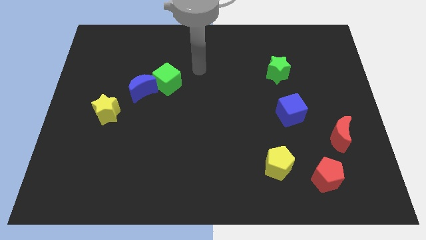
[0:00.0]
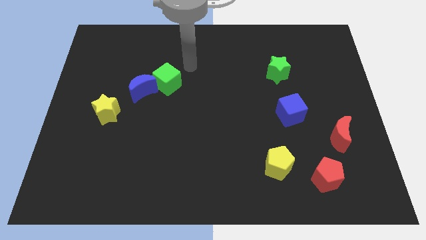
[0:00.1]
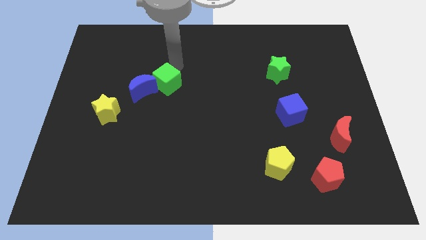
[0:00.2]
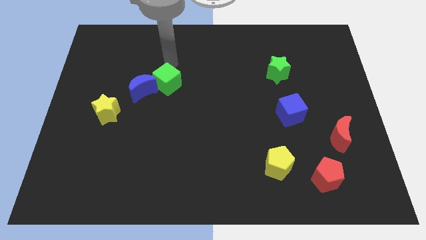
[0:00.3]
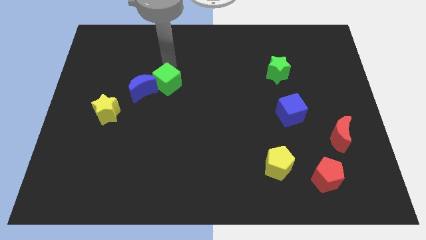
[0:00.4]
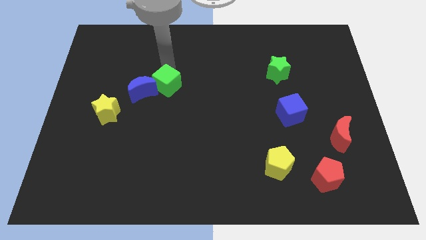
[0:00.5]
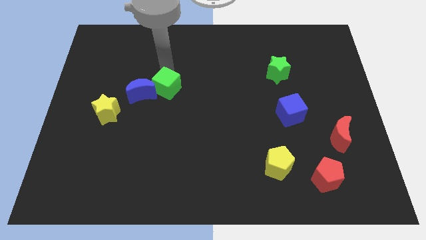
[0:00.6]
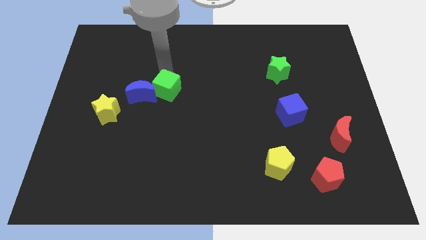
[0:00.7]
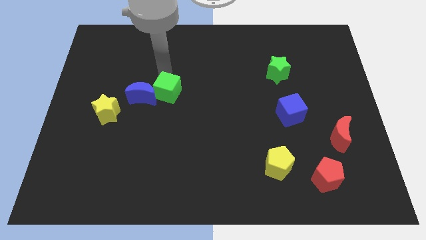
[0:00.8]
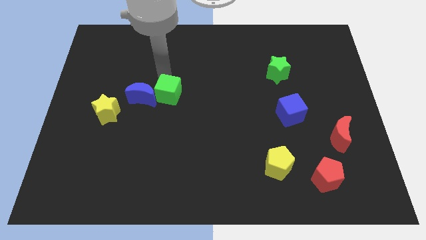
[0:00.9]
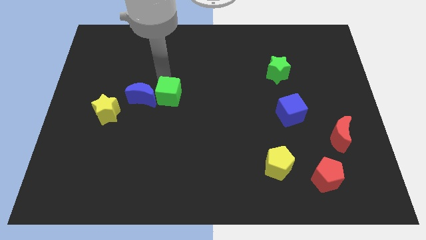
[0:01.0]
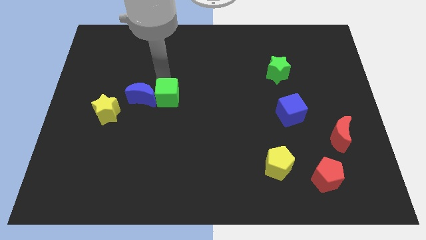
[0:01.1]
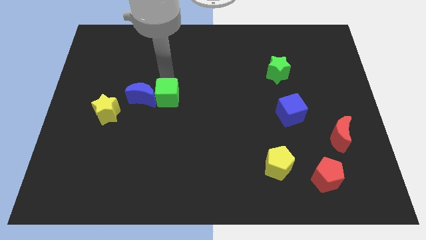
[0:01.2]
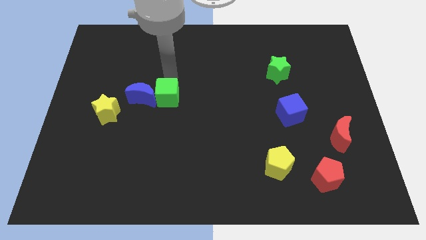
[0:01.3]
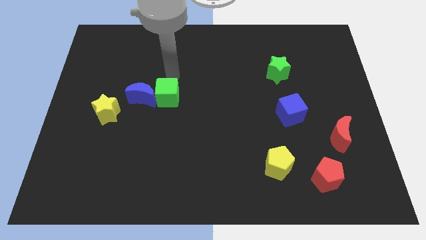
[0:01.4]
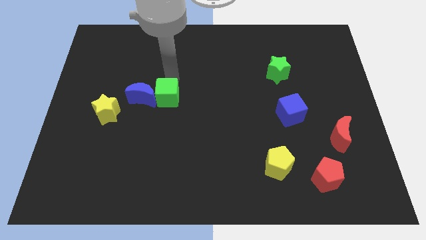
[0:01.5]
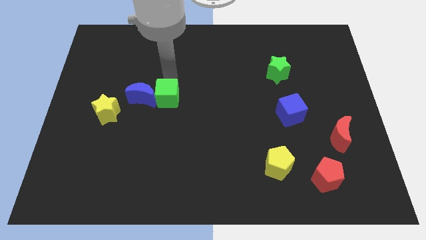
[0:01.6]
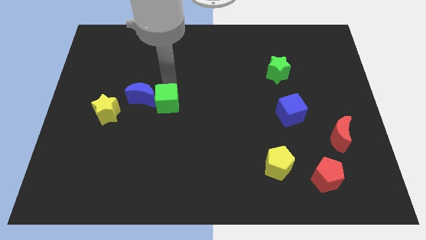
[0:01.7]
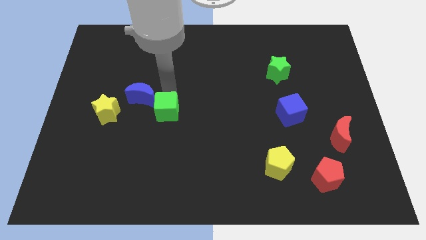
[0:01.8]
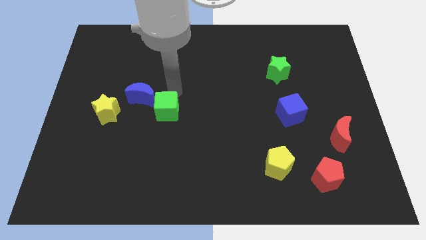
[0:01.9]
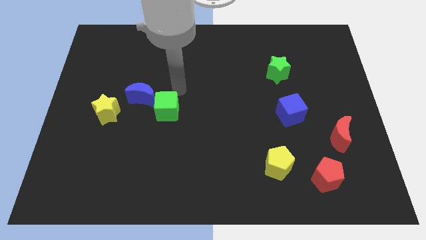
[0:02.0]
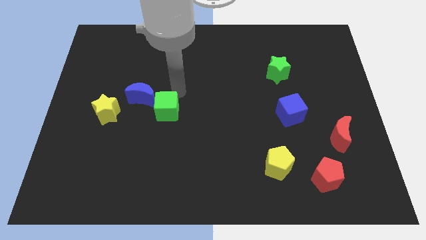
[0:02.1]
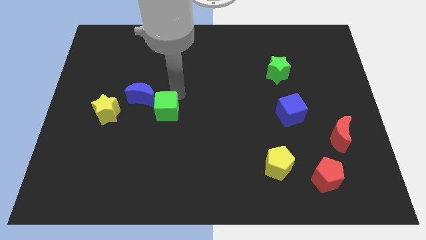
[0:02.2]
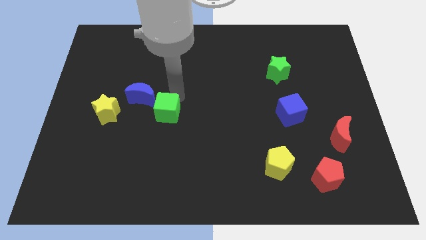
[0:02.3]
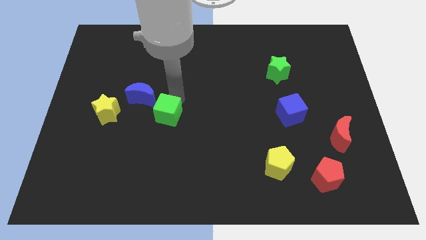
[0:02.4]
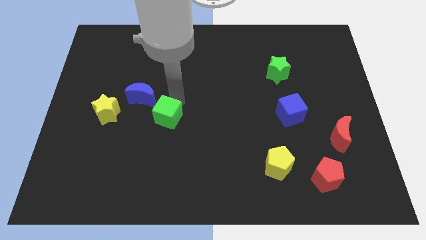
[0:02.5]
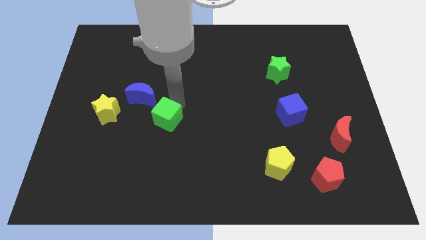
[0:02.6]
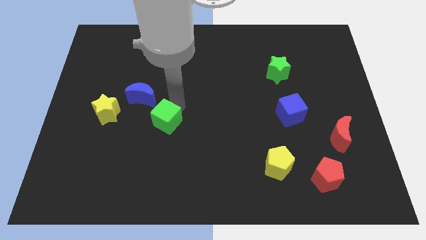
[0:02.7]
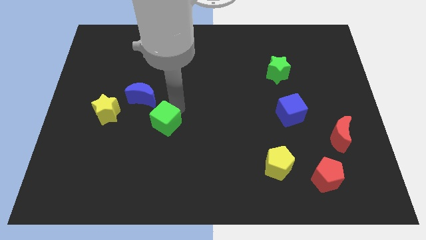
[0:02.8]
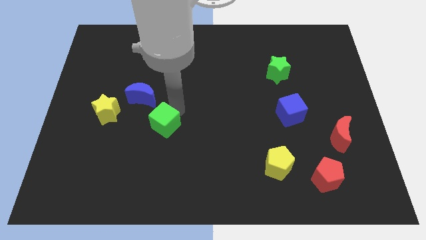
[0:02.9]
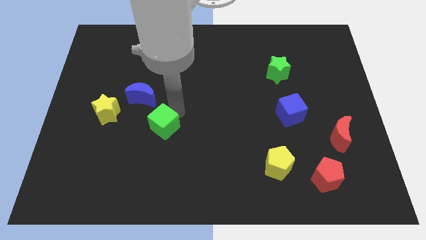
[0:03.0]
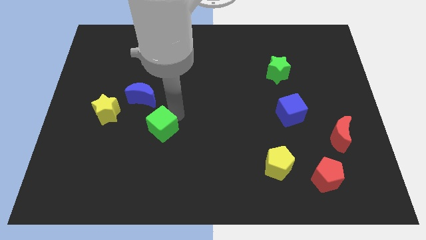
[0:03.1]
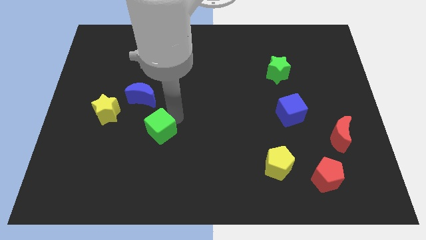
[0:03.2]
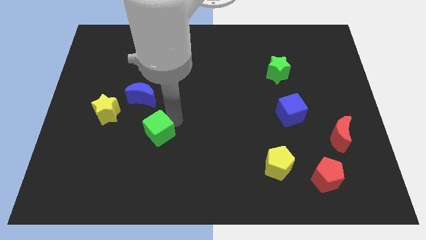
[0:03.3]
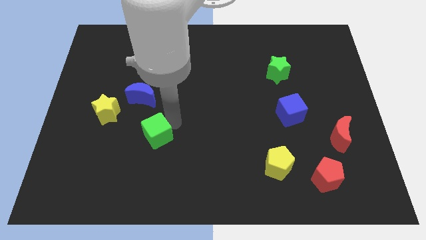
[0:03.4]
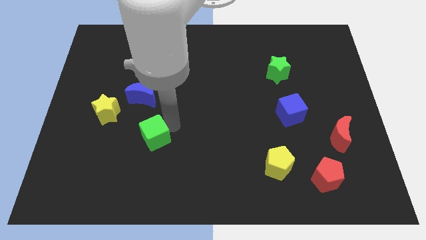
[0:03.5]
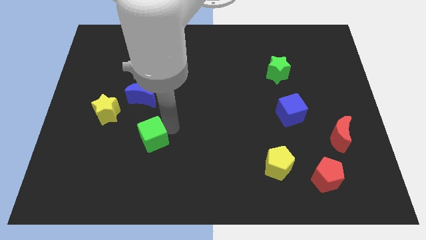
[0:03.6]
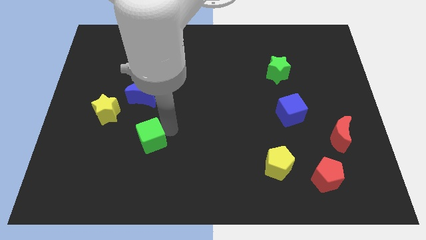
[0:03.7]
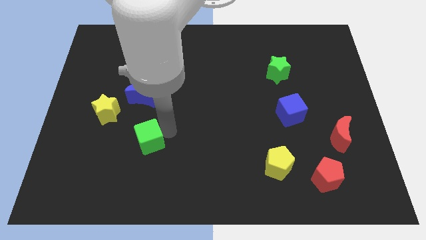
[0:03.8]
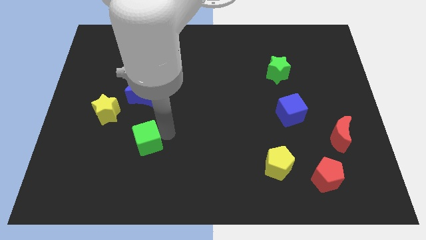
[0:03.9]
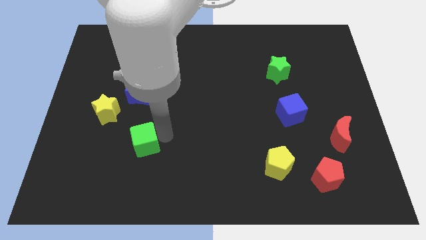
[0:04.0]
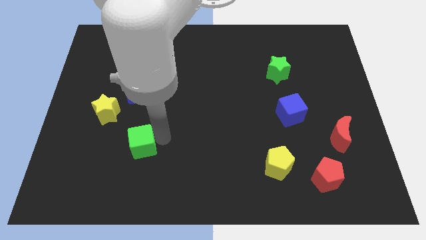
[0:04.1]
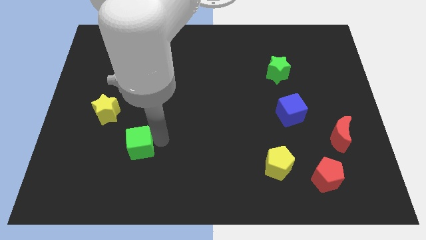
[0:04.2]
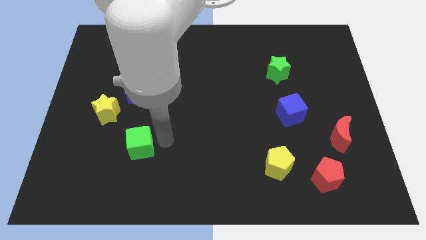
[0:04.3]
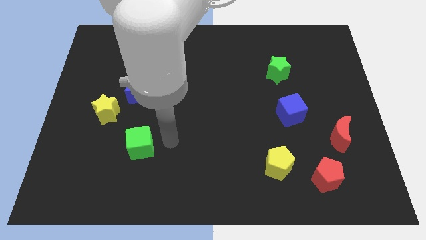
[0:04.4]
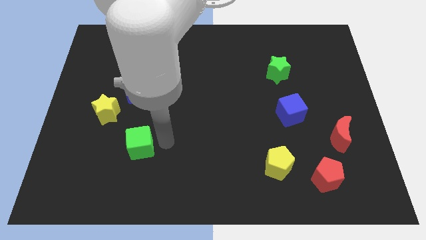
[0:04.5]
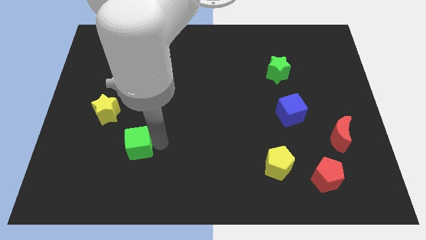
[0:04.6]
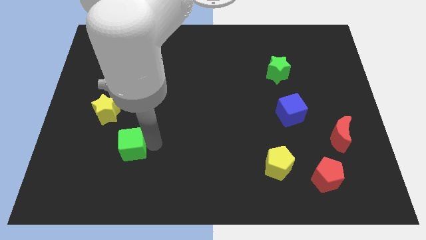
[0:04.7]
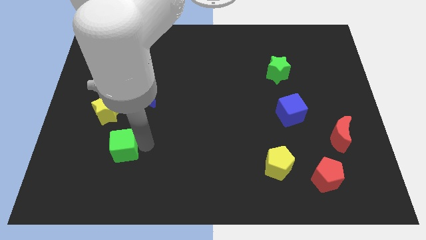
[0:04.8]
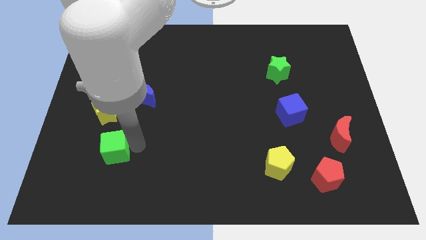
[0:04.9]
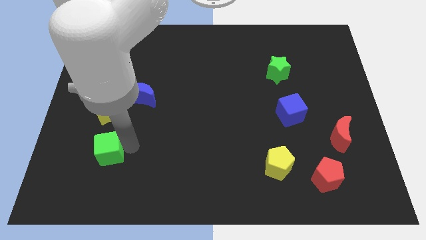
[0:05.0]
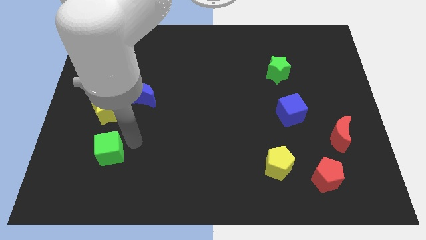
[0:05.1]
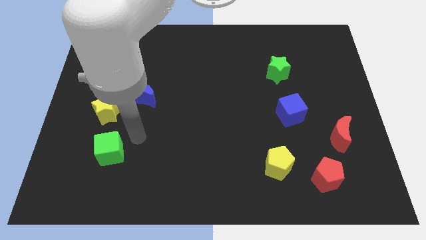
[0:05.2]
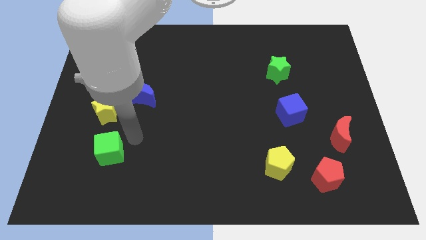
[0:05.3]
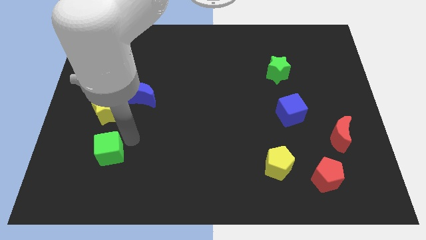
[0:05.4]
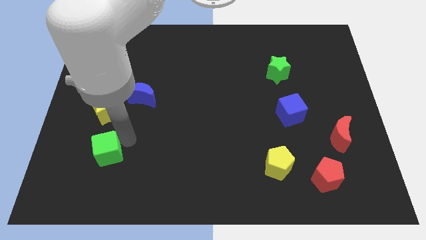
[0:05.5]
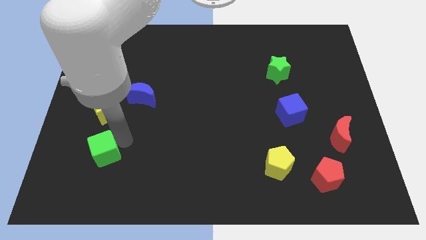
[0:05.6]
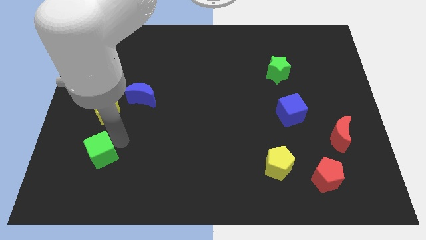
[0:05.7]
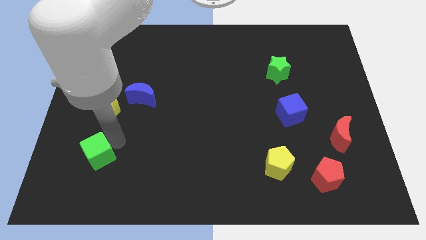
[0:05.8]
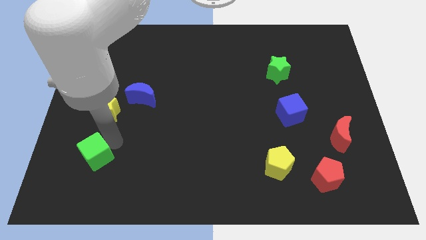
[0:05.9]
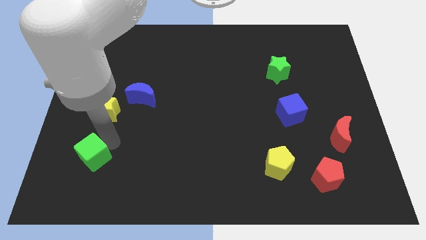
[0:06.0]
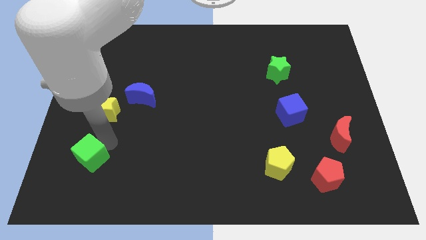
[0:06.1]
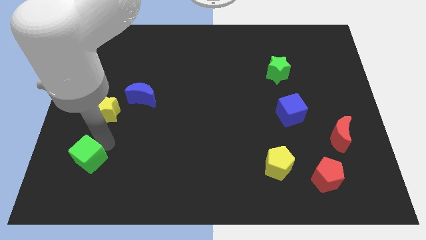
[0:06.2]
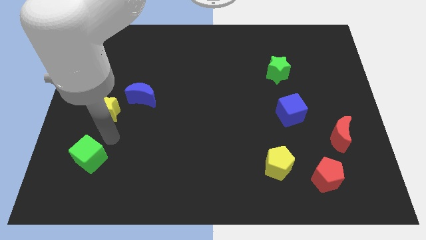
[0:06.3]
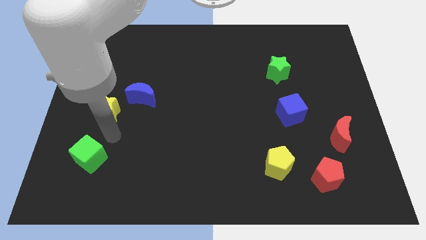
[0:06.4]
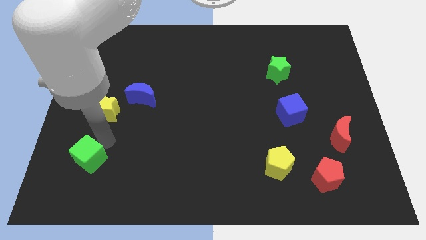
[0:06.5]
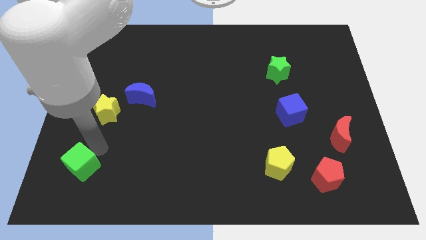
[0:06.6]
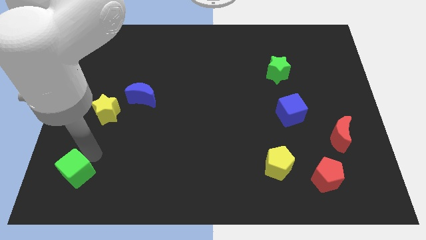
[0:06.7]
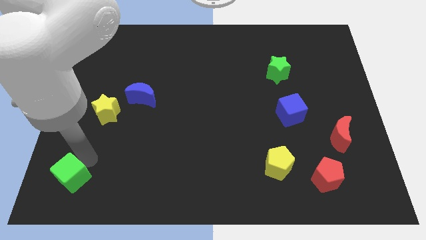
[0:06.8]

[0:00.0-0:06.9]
put the green cube to the bottom left
